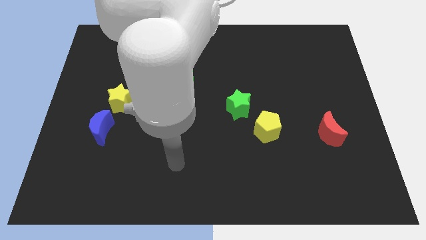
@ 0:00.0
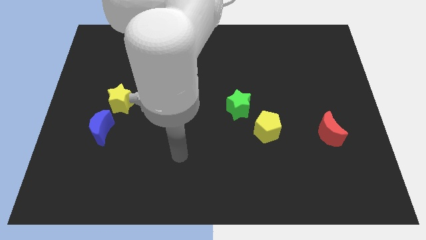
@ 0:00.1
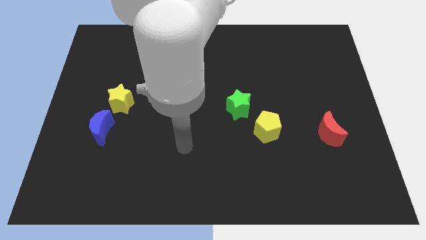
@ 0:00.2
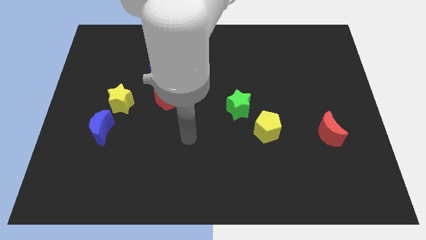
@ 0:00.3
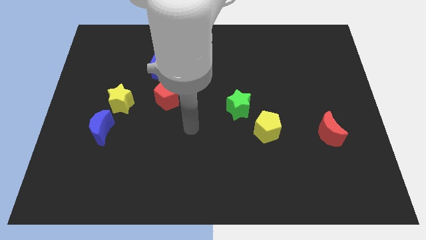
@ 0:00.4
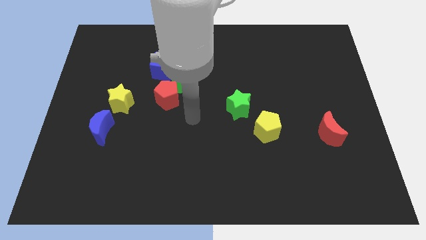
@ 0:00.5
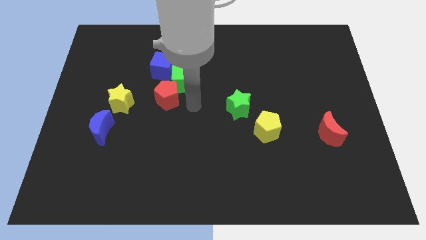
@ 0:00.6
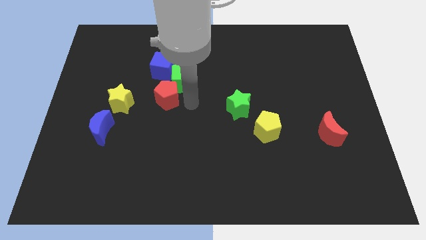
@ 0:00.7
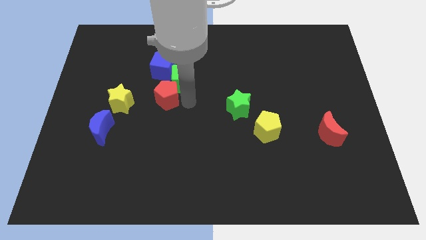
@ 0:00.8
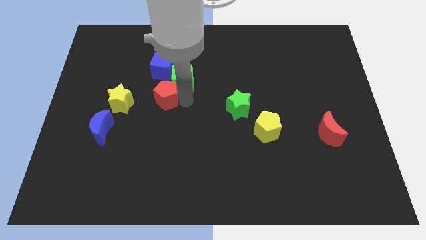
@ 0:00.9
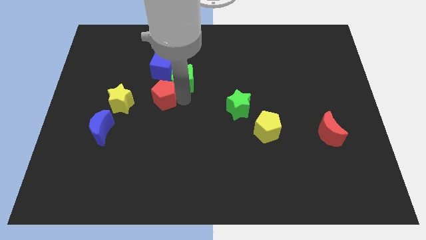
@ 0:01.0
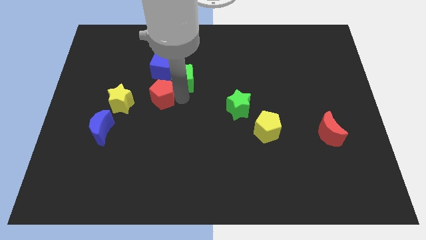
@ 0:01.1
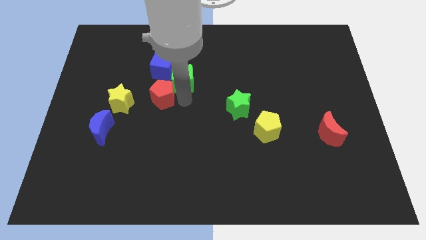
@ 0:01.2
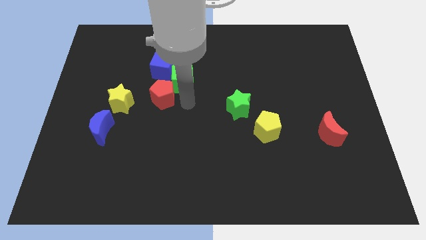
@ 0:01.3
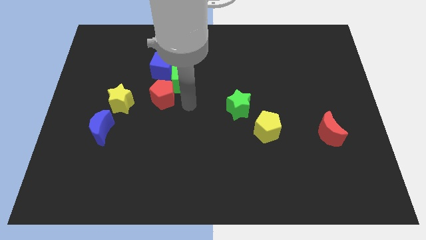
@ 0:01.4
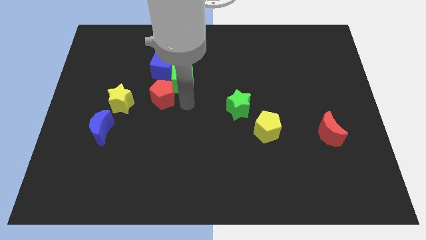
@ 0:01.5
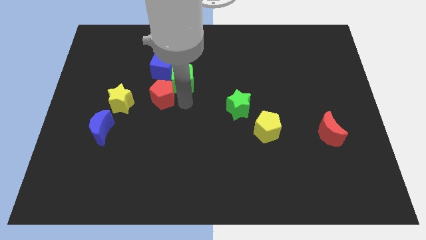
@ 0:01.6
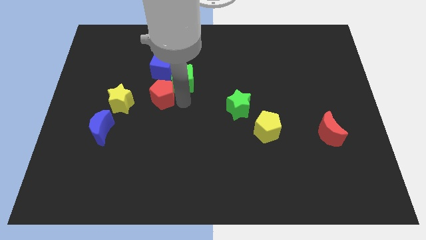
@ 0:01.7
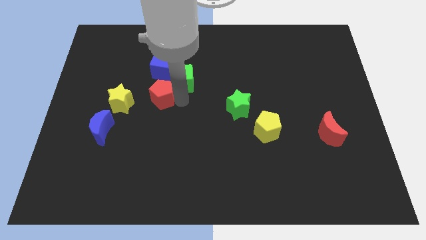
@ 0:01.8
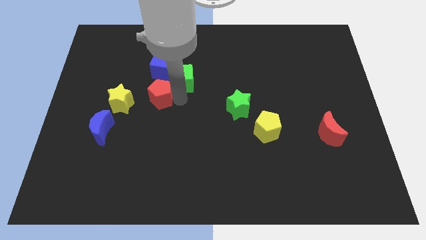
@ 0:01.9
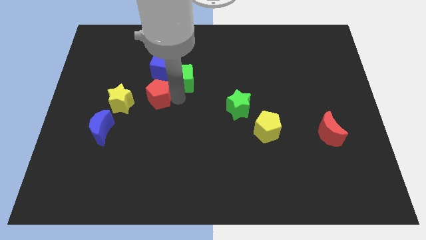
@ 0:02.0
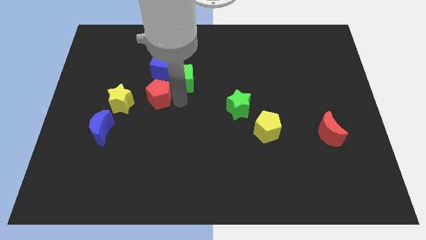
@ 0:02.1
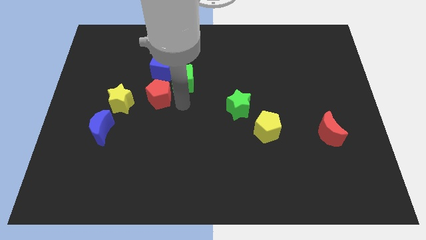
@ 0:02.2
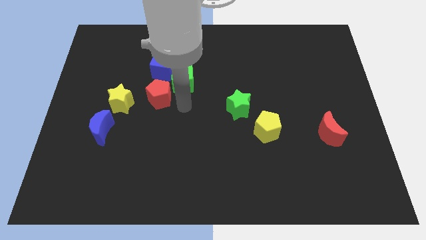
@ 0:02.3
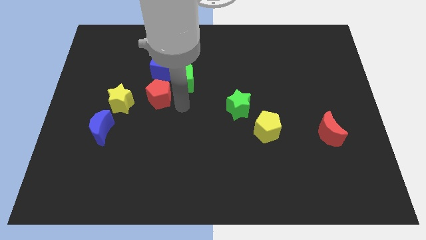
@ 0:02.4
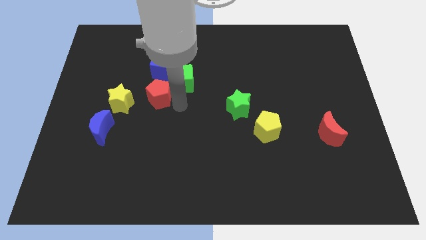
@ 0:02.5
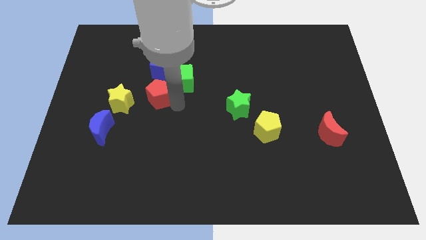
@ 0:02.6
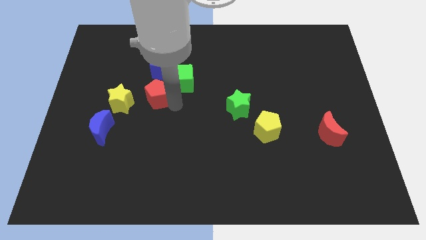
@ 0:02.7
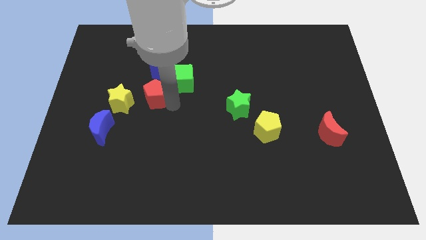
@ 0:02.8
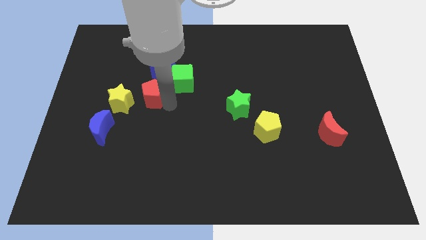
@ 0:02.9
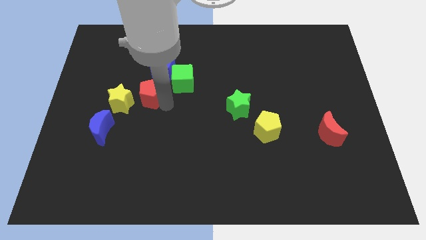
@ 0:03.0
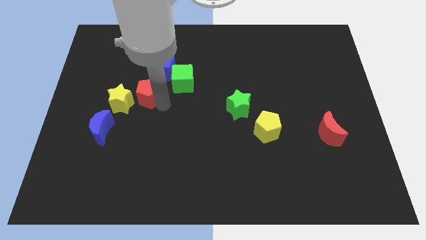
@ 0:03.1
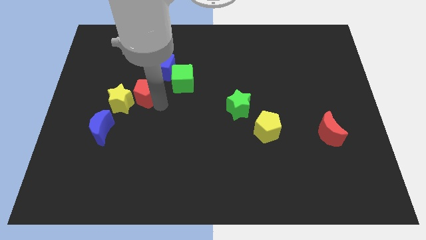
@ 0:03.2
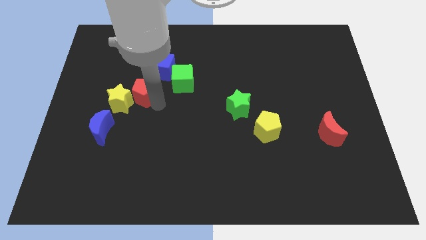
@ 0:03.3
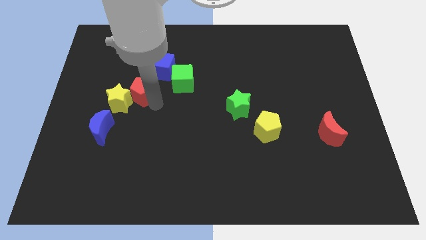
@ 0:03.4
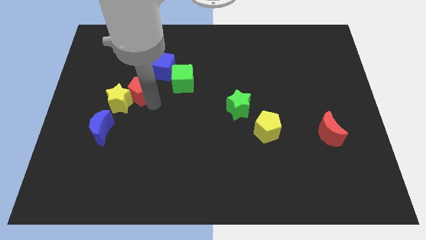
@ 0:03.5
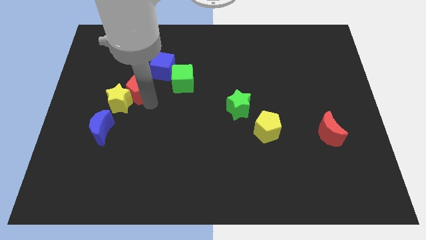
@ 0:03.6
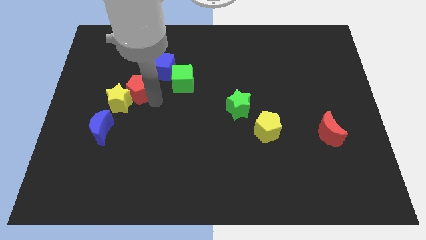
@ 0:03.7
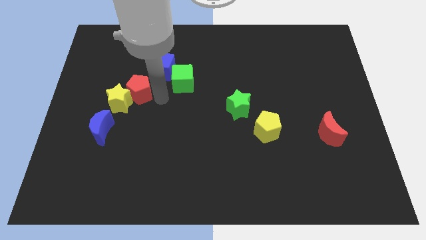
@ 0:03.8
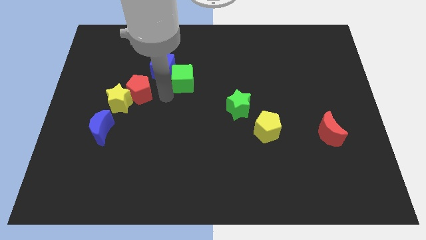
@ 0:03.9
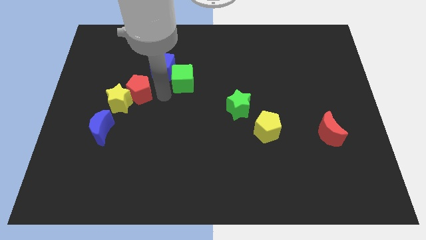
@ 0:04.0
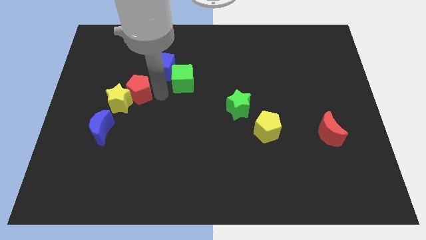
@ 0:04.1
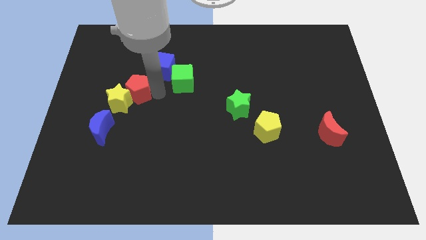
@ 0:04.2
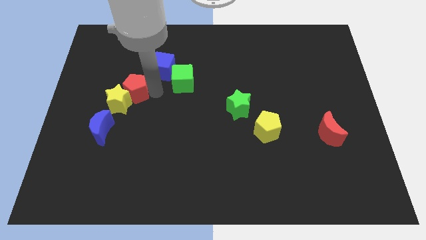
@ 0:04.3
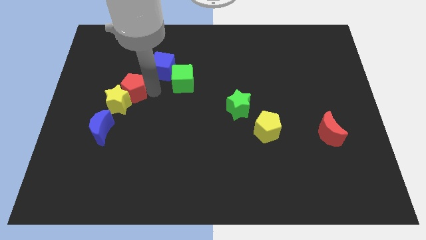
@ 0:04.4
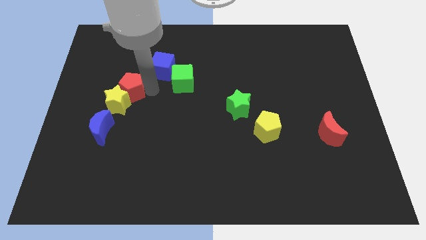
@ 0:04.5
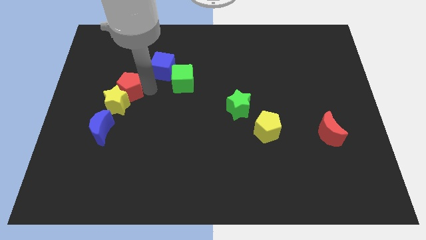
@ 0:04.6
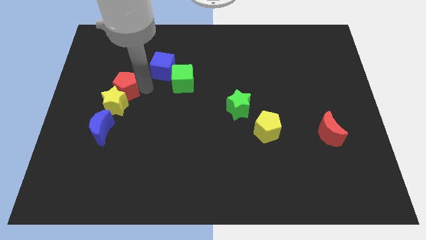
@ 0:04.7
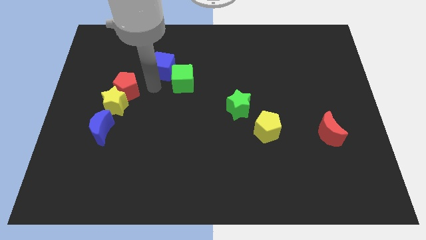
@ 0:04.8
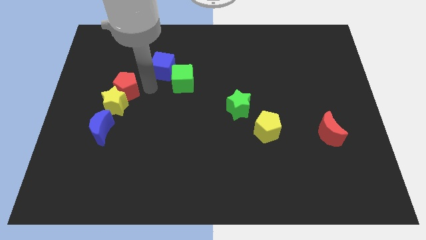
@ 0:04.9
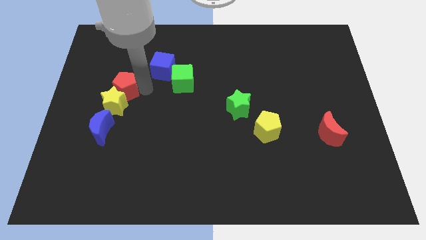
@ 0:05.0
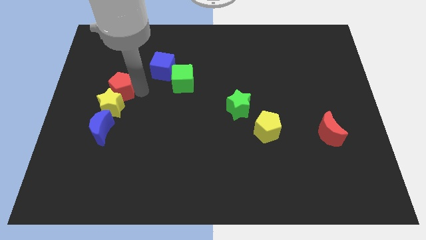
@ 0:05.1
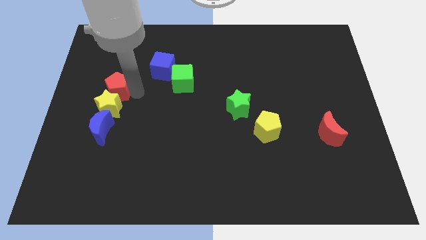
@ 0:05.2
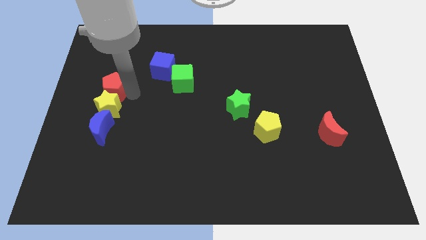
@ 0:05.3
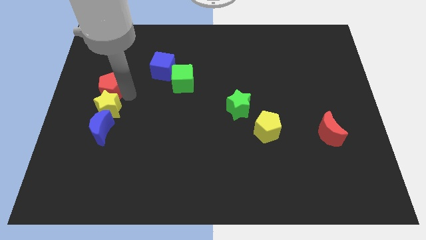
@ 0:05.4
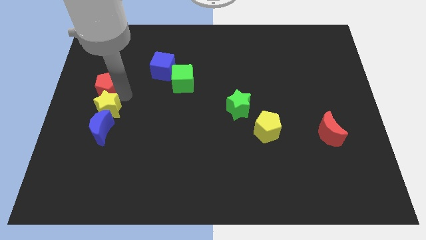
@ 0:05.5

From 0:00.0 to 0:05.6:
slide the red pentagon to the left side of the board
